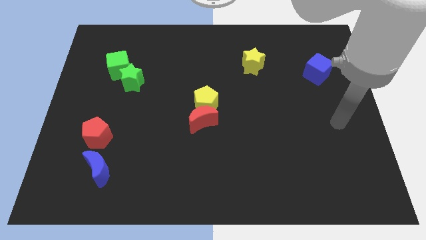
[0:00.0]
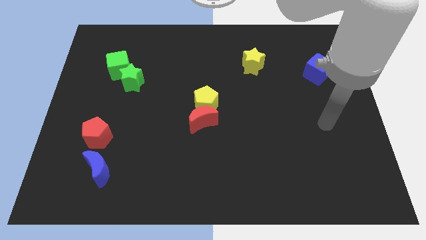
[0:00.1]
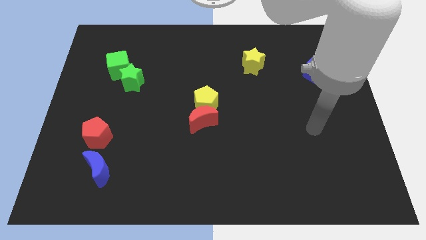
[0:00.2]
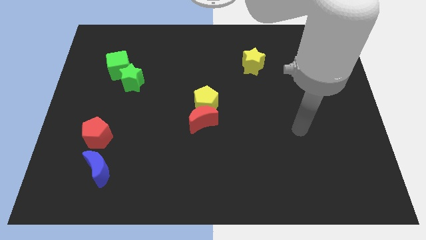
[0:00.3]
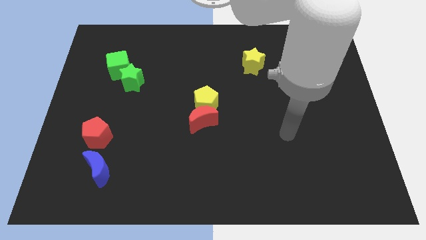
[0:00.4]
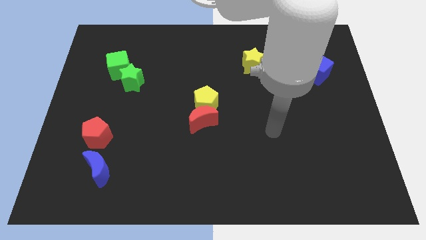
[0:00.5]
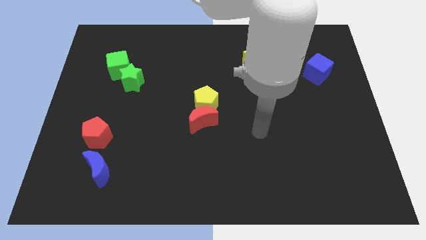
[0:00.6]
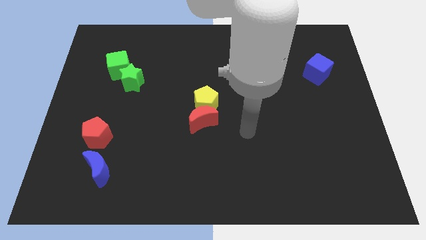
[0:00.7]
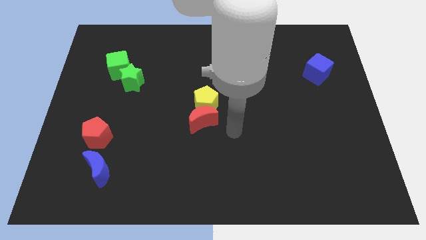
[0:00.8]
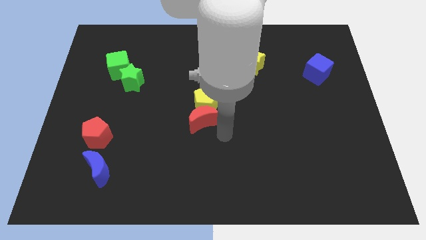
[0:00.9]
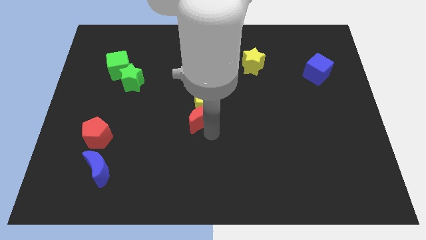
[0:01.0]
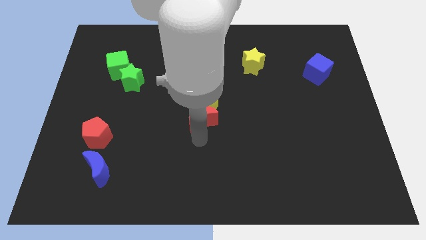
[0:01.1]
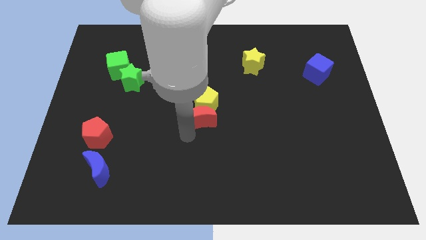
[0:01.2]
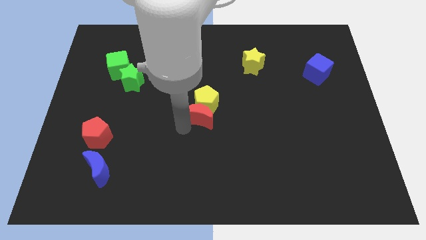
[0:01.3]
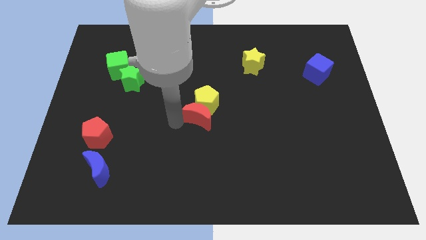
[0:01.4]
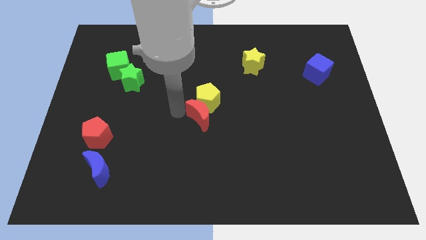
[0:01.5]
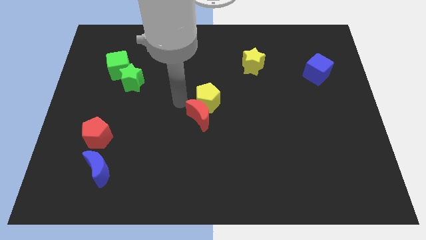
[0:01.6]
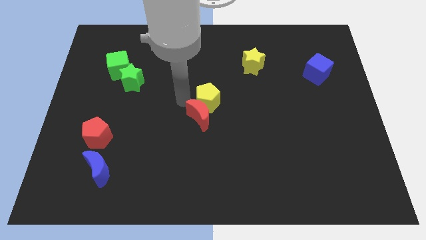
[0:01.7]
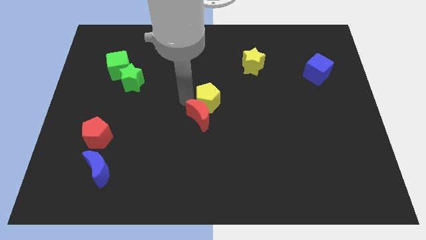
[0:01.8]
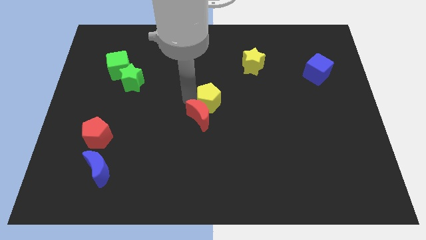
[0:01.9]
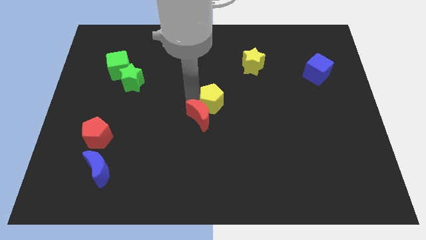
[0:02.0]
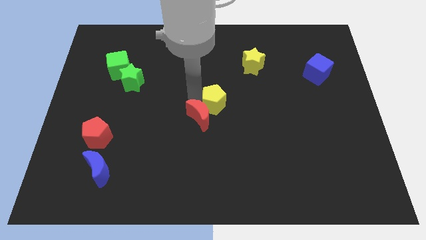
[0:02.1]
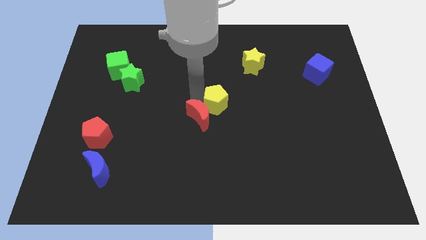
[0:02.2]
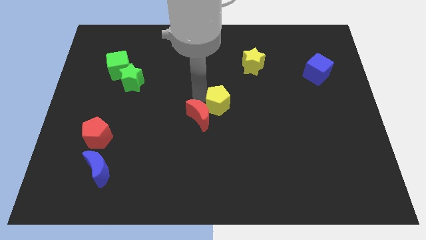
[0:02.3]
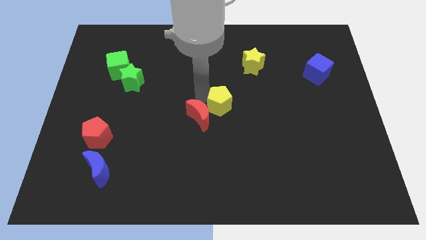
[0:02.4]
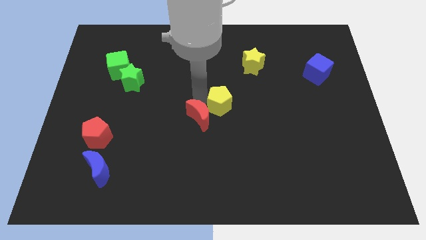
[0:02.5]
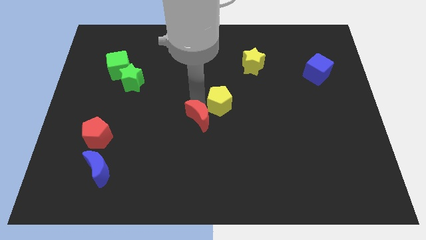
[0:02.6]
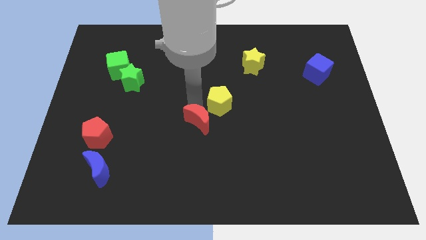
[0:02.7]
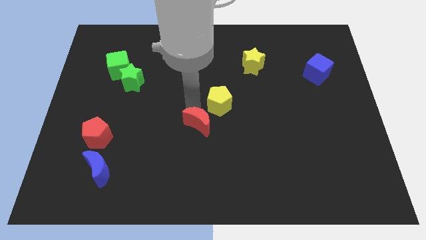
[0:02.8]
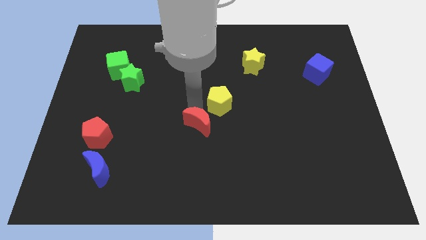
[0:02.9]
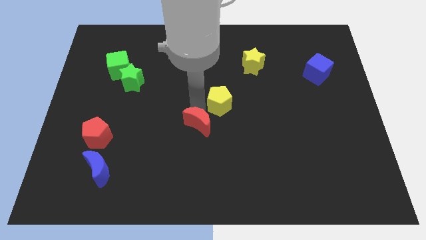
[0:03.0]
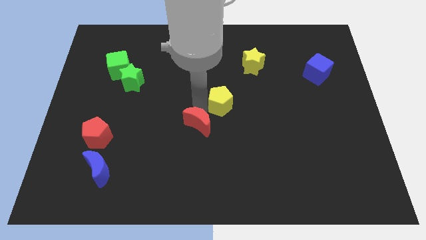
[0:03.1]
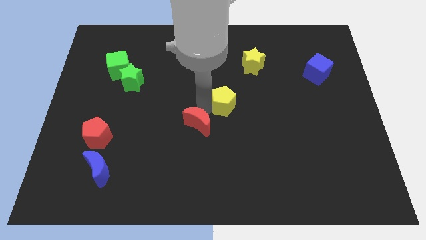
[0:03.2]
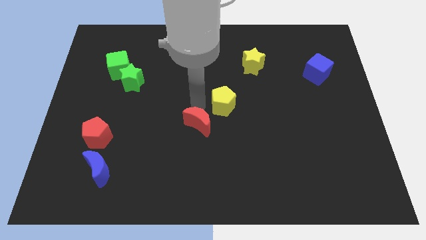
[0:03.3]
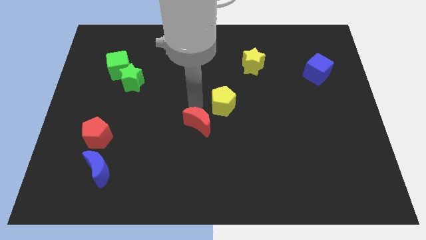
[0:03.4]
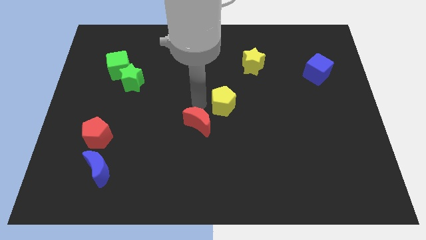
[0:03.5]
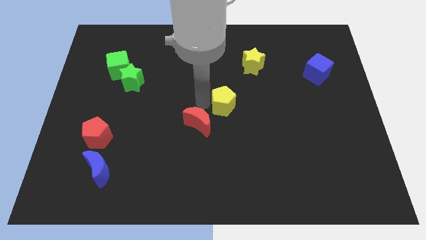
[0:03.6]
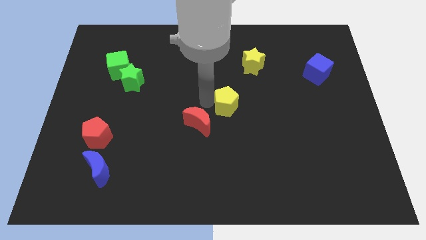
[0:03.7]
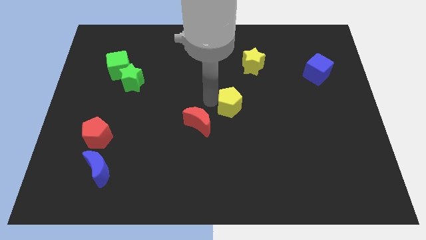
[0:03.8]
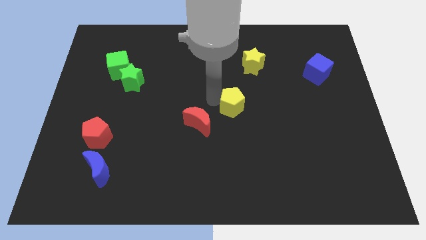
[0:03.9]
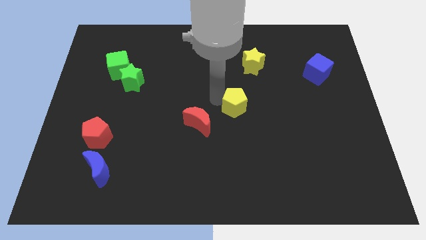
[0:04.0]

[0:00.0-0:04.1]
slide the yellow pentagon right somewhat

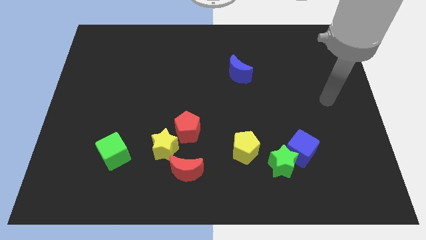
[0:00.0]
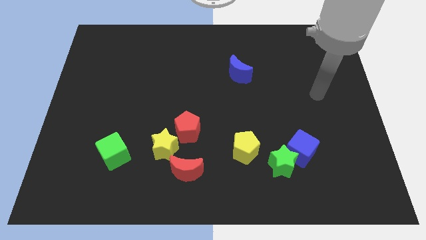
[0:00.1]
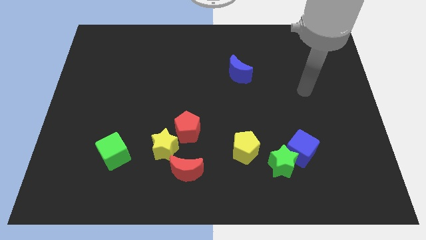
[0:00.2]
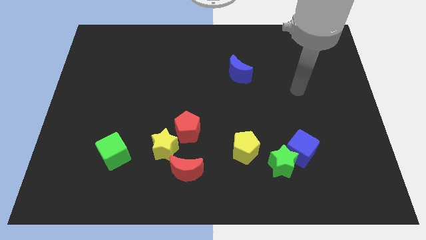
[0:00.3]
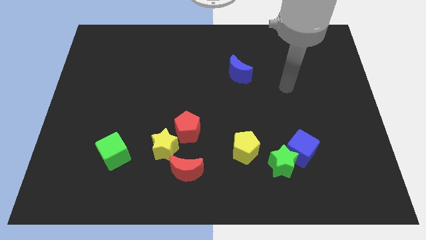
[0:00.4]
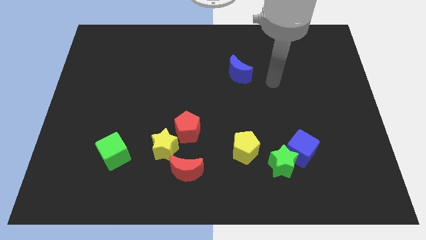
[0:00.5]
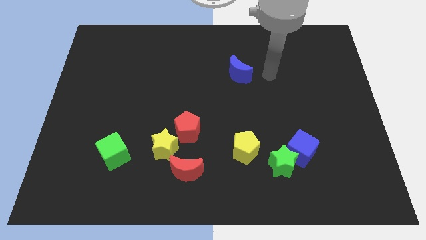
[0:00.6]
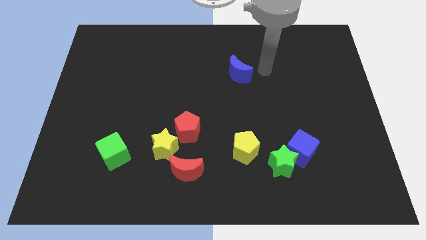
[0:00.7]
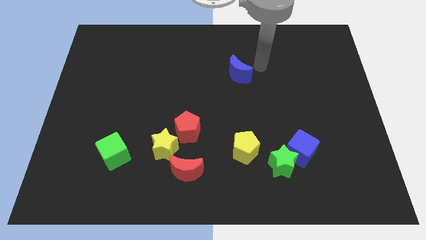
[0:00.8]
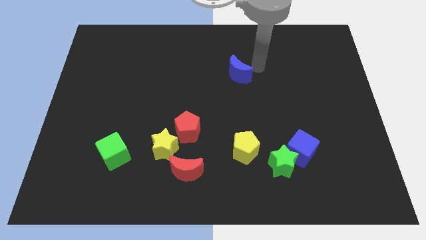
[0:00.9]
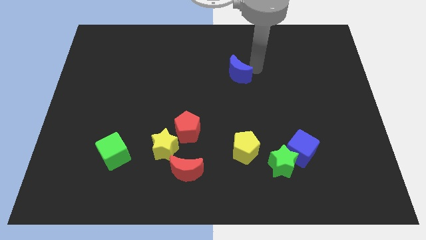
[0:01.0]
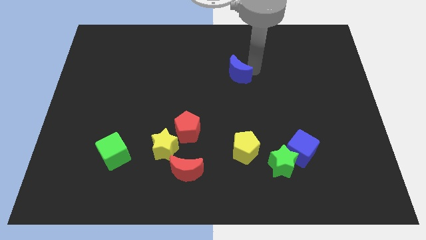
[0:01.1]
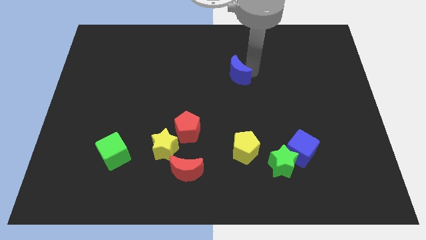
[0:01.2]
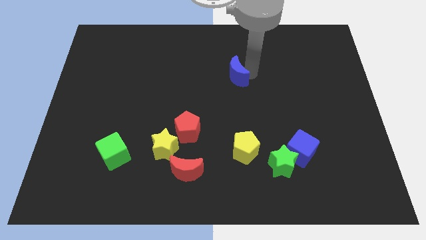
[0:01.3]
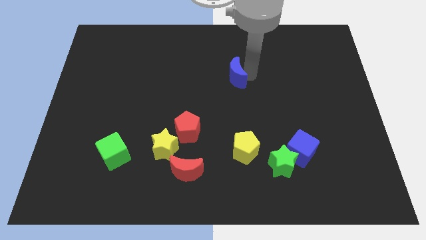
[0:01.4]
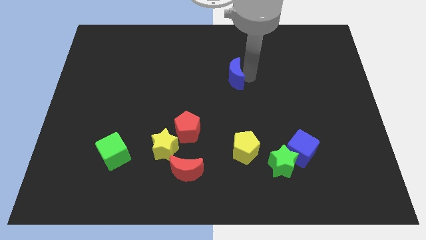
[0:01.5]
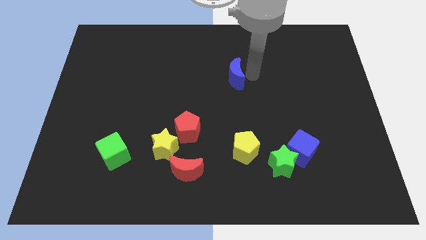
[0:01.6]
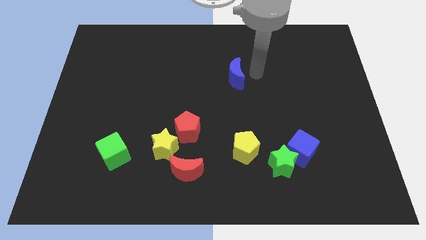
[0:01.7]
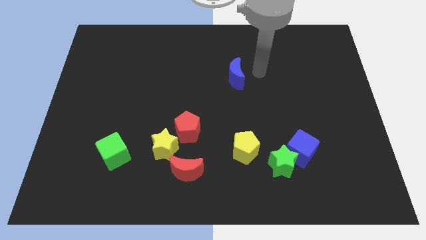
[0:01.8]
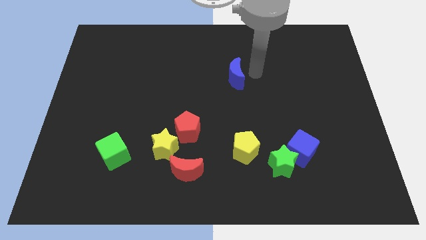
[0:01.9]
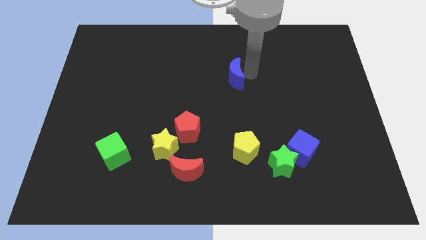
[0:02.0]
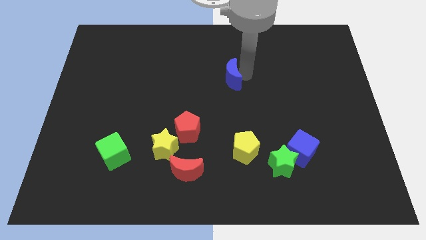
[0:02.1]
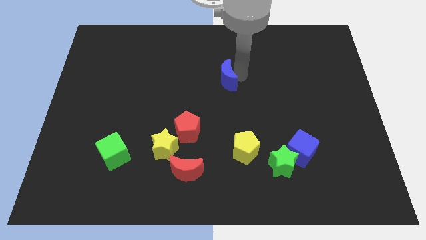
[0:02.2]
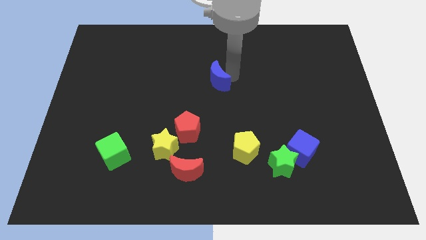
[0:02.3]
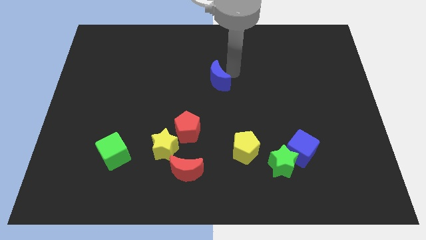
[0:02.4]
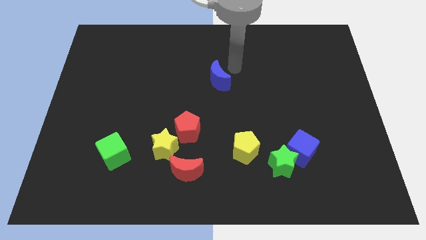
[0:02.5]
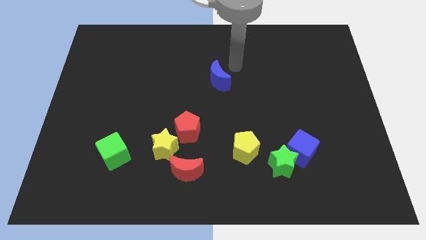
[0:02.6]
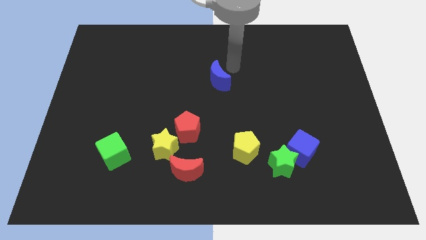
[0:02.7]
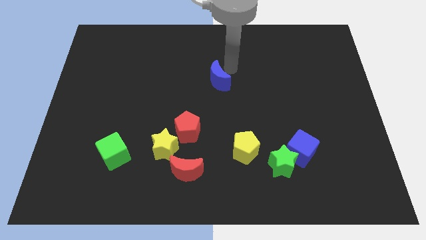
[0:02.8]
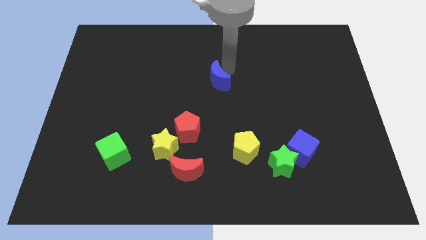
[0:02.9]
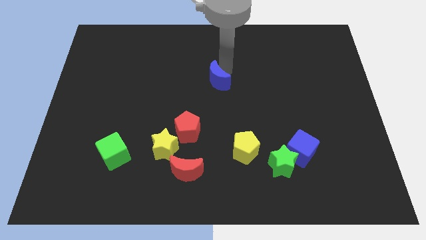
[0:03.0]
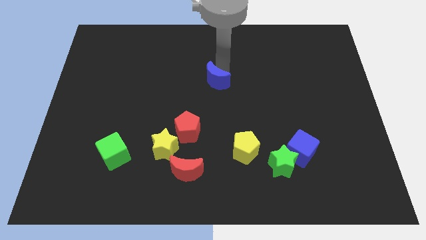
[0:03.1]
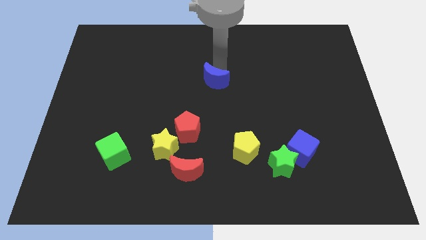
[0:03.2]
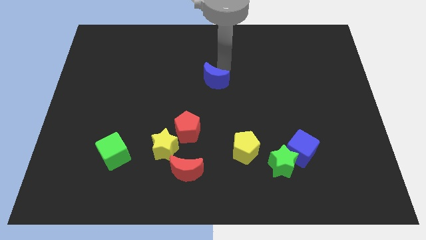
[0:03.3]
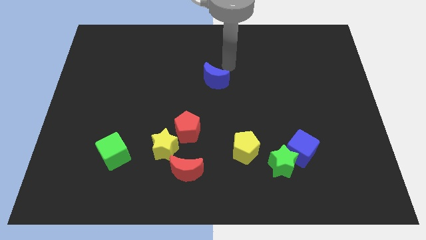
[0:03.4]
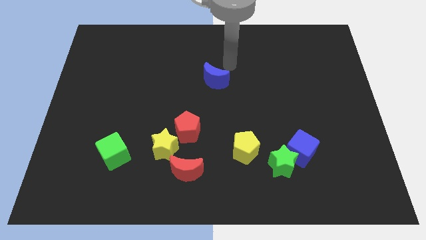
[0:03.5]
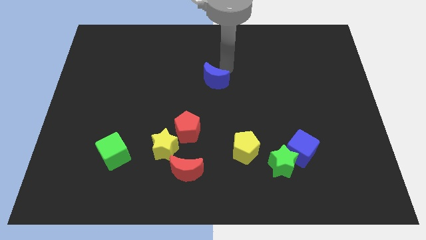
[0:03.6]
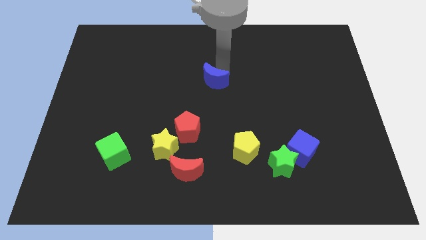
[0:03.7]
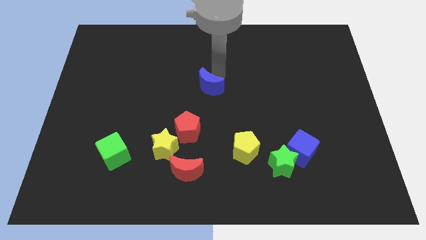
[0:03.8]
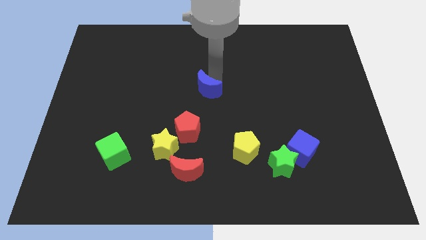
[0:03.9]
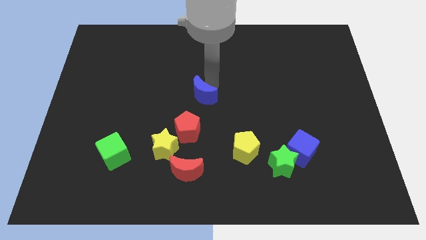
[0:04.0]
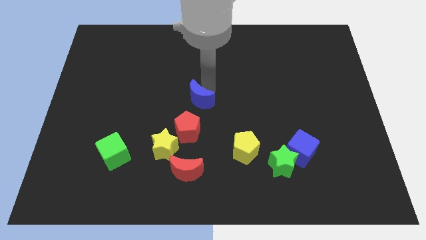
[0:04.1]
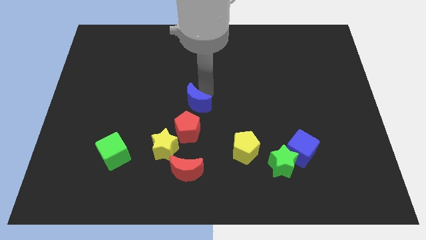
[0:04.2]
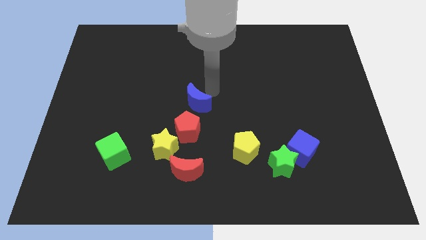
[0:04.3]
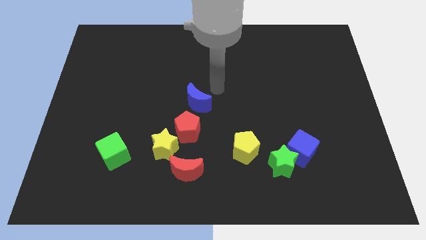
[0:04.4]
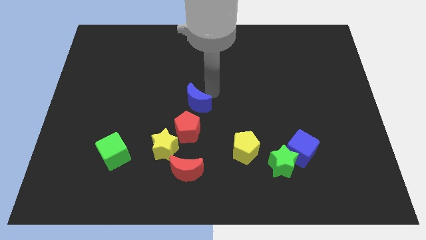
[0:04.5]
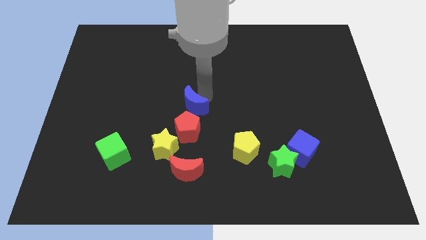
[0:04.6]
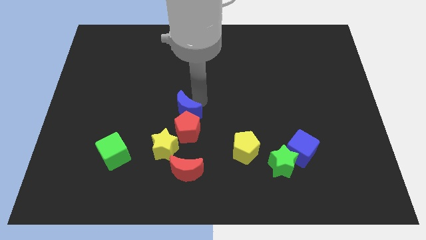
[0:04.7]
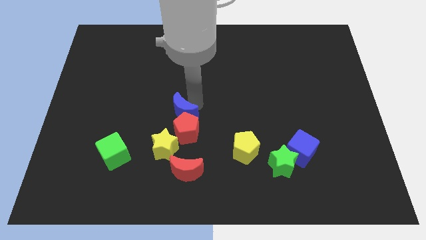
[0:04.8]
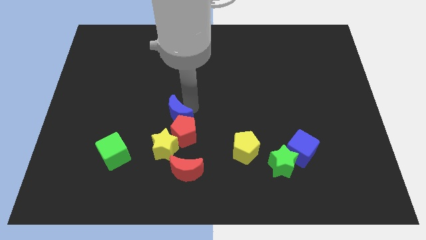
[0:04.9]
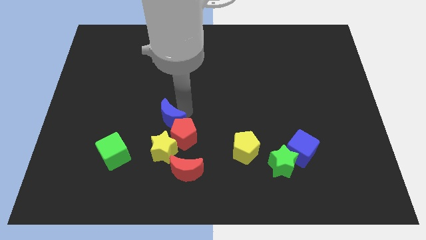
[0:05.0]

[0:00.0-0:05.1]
push the blue moon diagonally down and left
